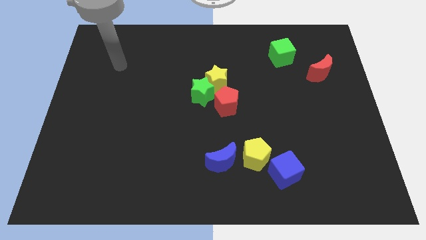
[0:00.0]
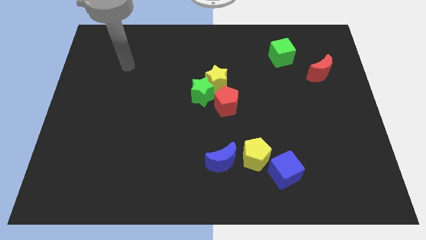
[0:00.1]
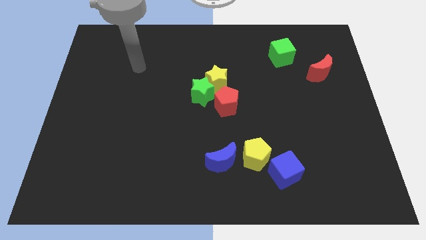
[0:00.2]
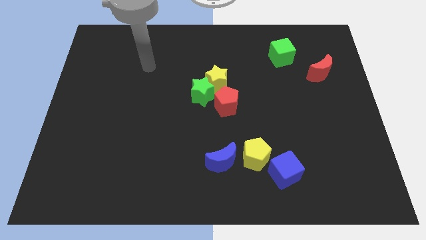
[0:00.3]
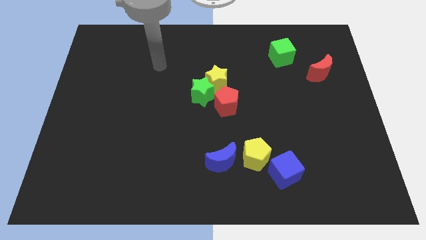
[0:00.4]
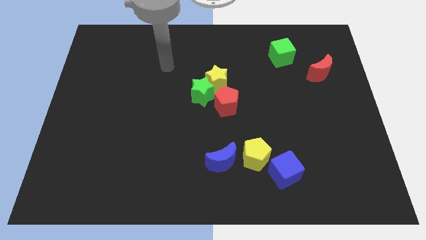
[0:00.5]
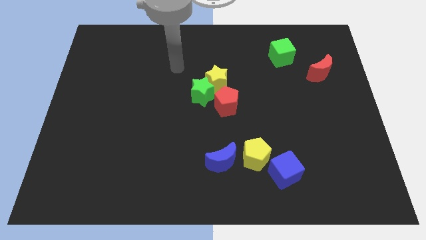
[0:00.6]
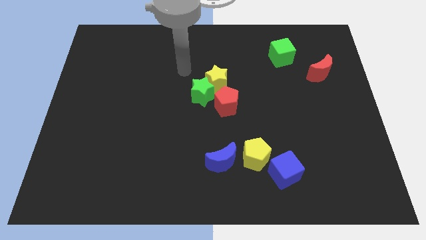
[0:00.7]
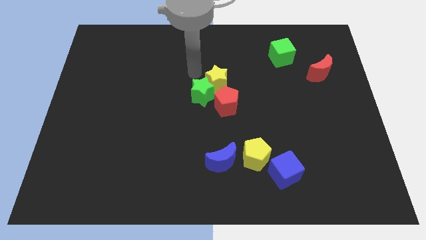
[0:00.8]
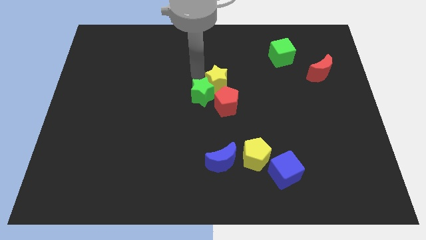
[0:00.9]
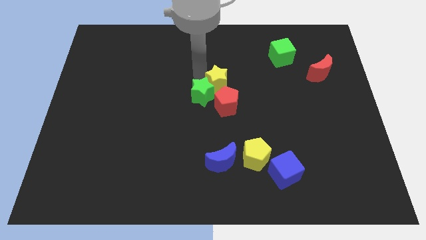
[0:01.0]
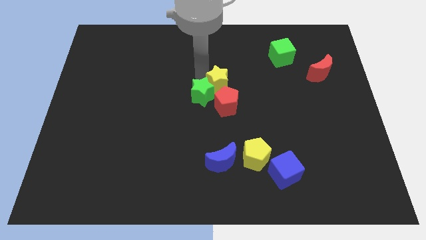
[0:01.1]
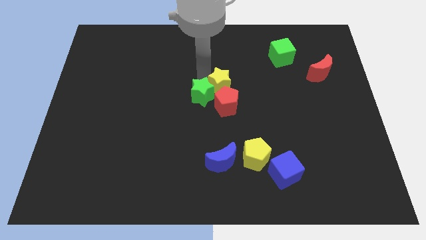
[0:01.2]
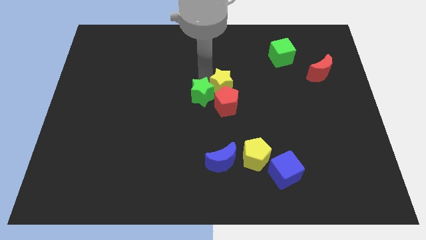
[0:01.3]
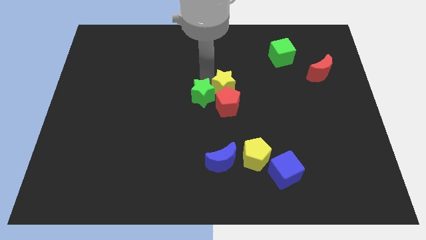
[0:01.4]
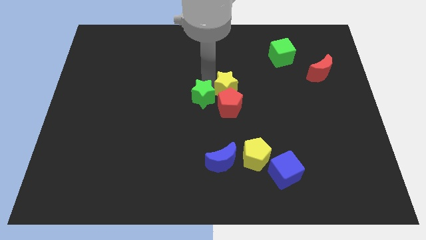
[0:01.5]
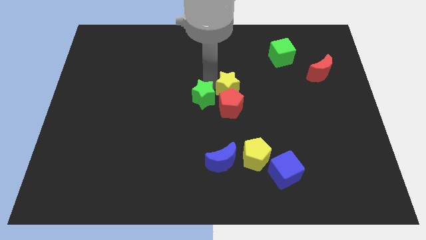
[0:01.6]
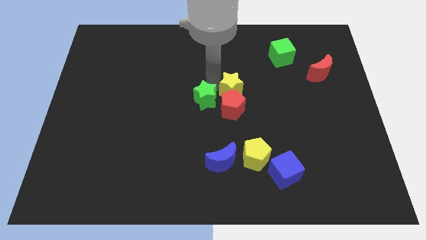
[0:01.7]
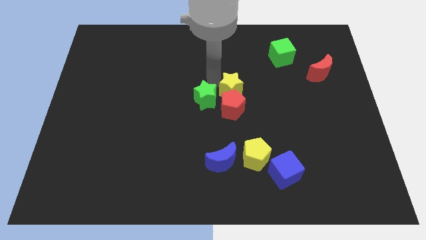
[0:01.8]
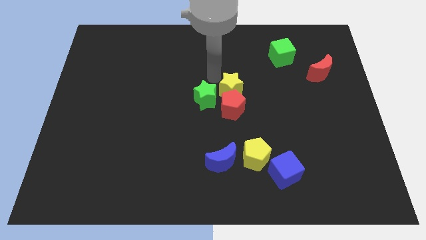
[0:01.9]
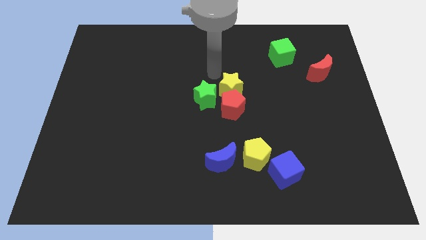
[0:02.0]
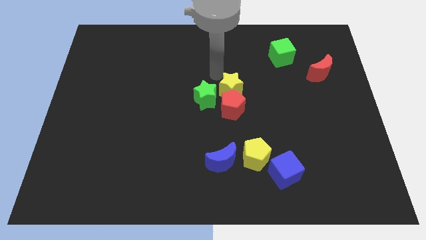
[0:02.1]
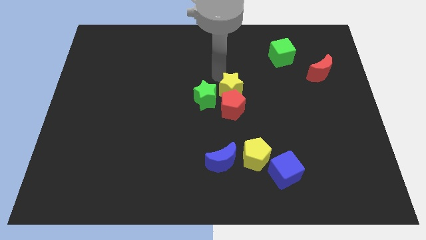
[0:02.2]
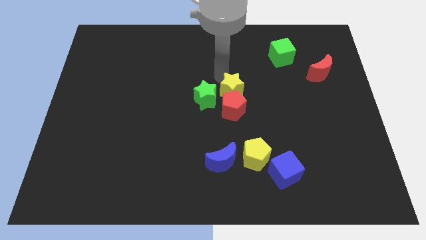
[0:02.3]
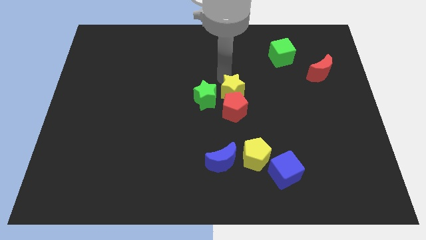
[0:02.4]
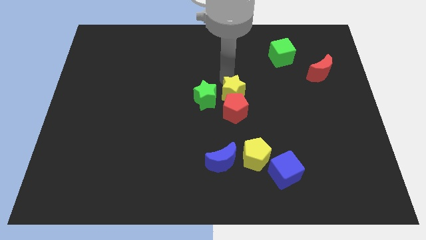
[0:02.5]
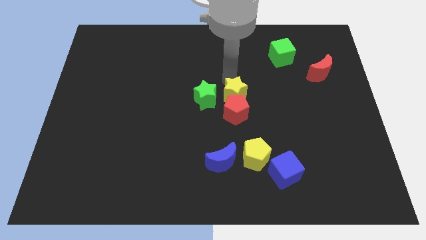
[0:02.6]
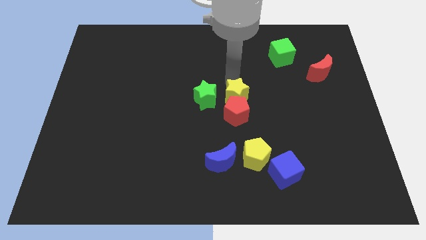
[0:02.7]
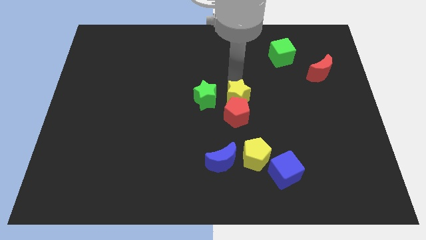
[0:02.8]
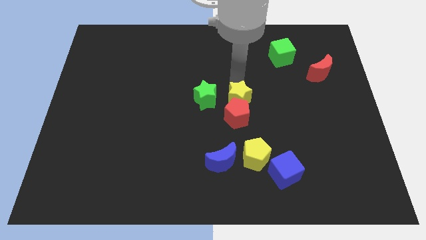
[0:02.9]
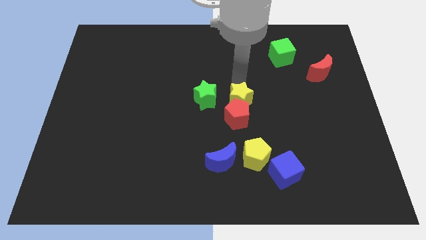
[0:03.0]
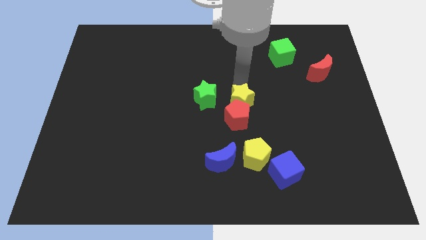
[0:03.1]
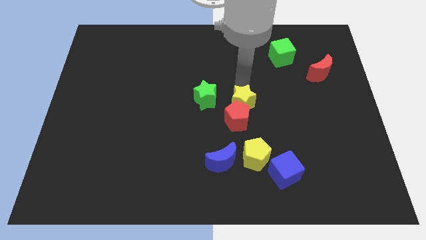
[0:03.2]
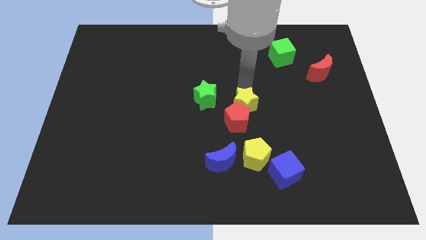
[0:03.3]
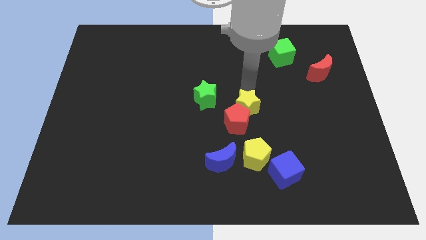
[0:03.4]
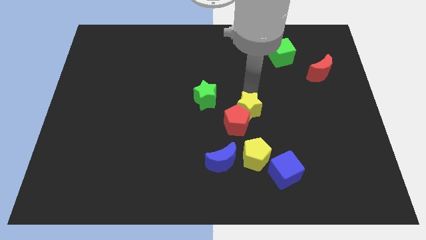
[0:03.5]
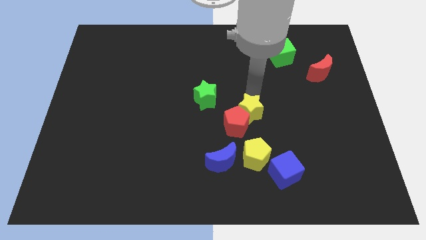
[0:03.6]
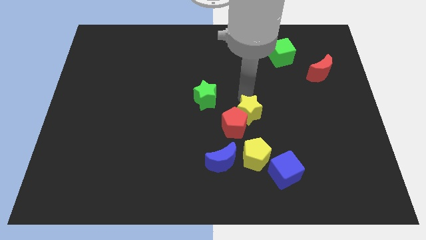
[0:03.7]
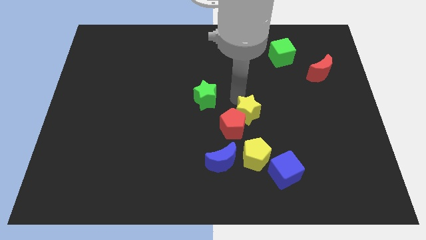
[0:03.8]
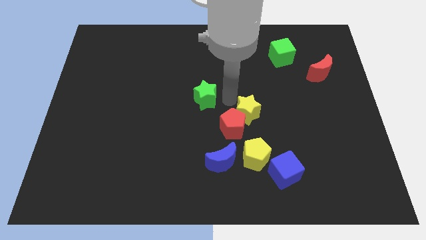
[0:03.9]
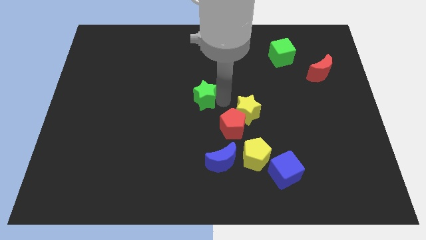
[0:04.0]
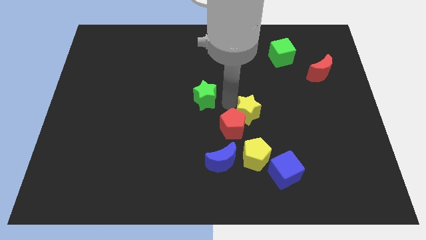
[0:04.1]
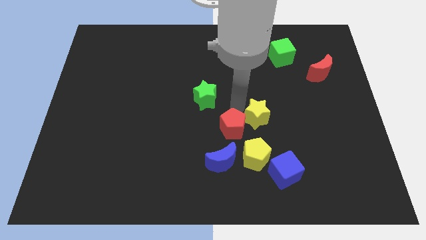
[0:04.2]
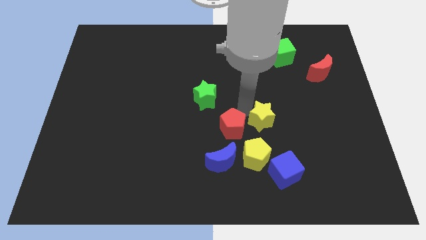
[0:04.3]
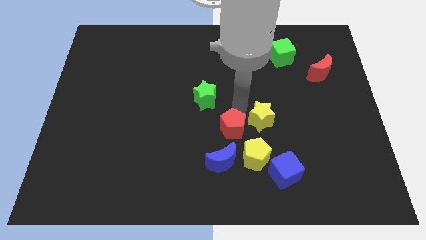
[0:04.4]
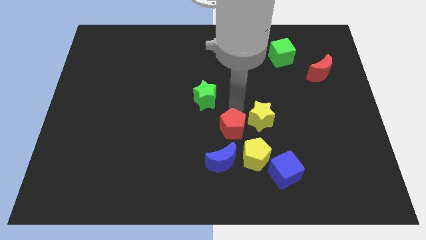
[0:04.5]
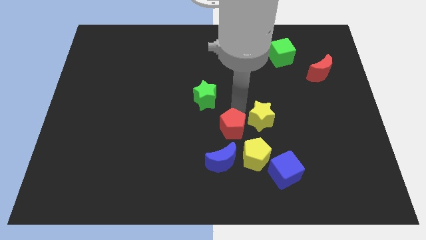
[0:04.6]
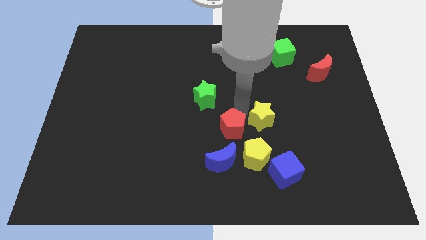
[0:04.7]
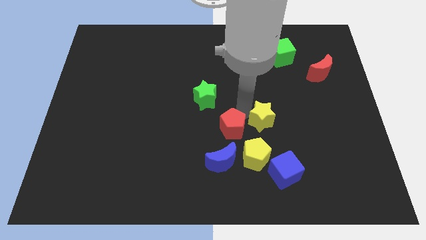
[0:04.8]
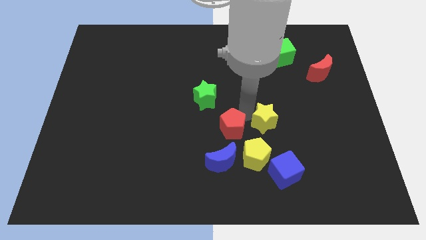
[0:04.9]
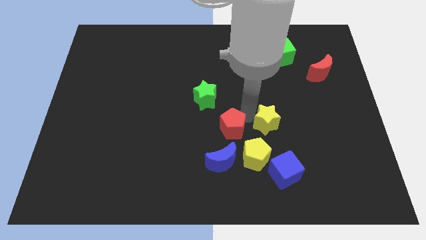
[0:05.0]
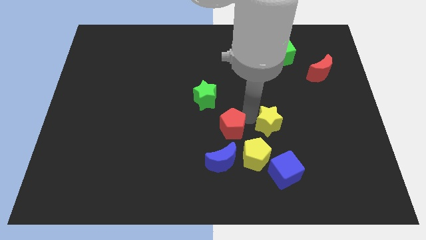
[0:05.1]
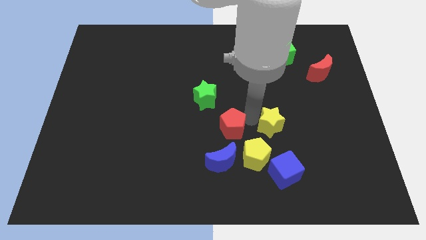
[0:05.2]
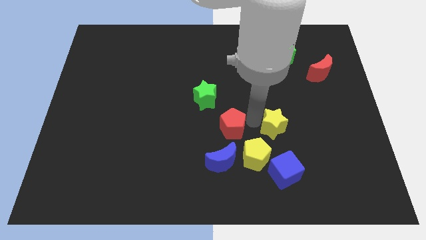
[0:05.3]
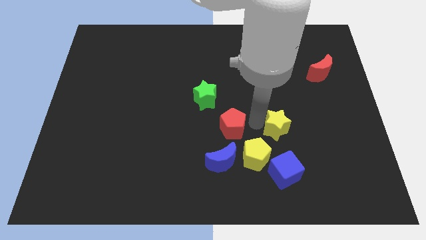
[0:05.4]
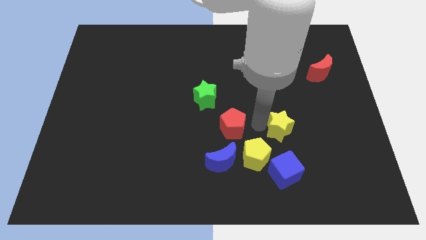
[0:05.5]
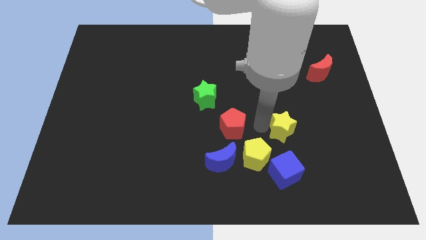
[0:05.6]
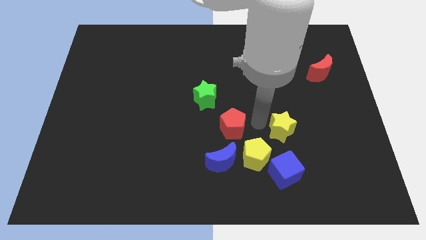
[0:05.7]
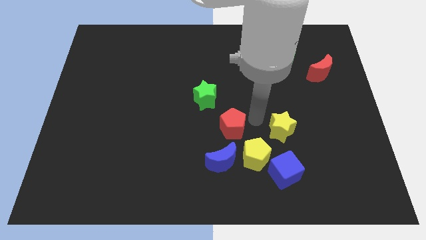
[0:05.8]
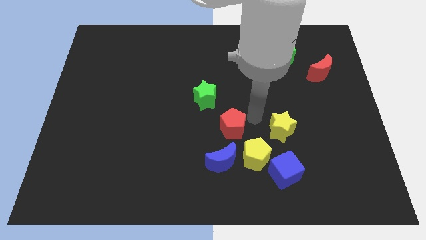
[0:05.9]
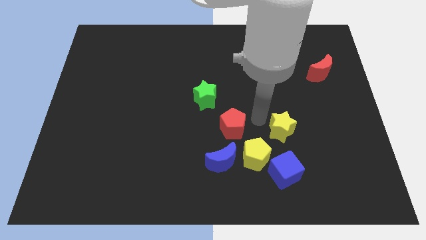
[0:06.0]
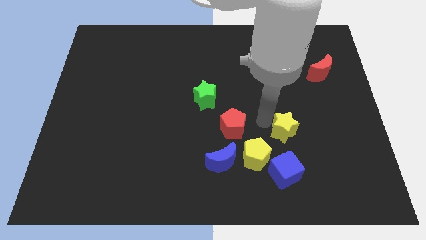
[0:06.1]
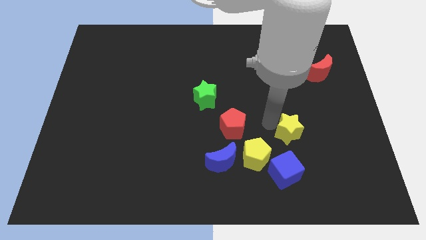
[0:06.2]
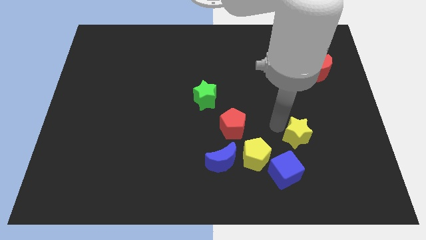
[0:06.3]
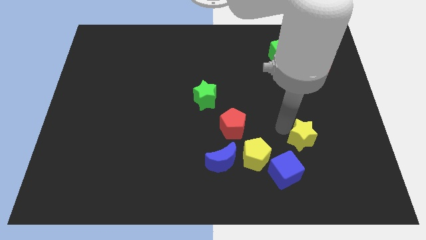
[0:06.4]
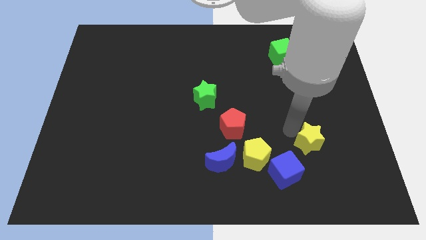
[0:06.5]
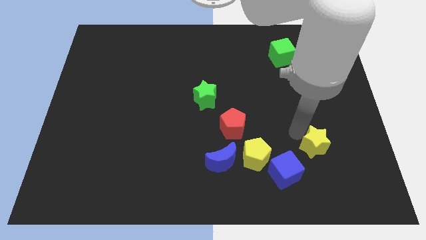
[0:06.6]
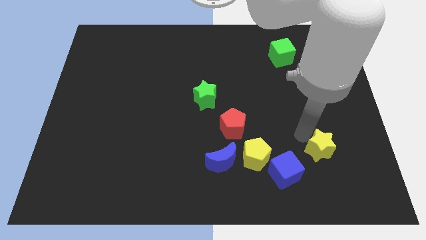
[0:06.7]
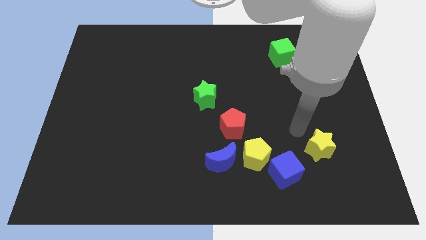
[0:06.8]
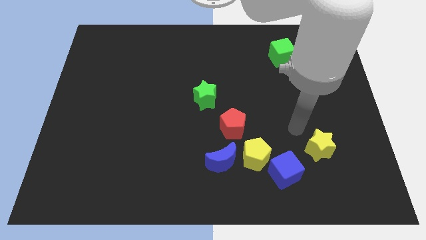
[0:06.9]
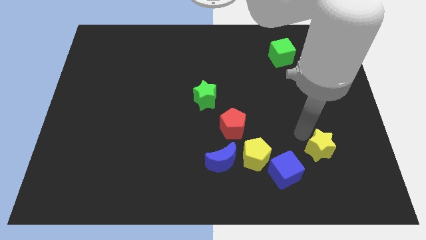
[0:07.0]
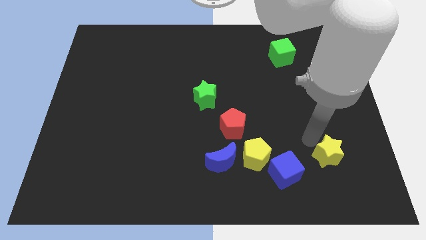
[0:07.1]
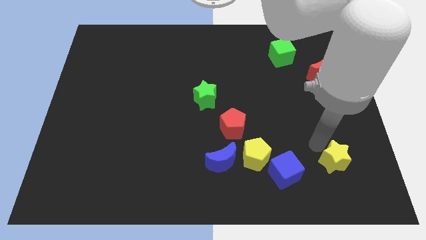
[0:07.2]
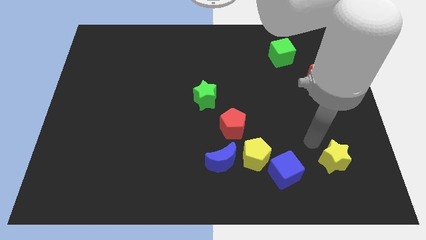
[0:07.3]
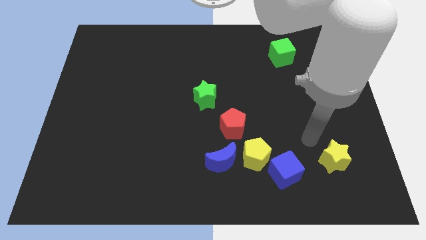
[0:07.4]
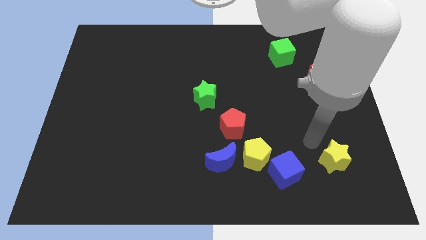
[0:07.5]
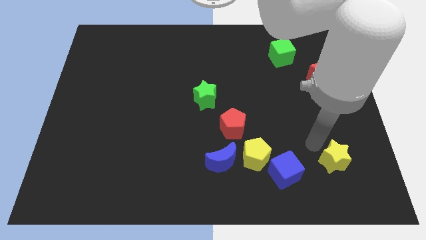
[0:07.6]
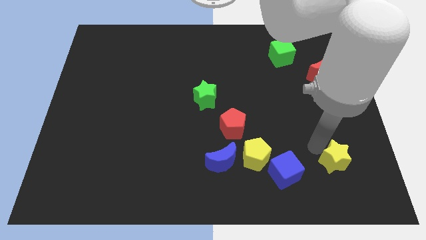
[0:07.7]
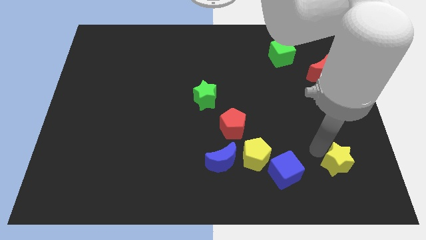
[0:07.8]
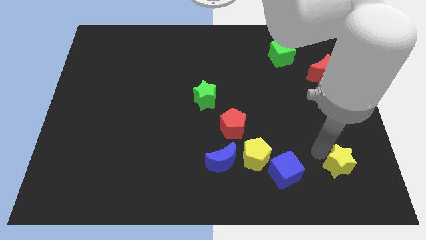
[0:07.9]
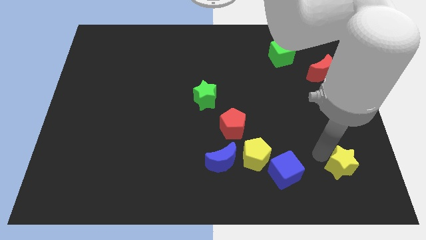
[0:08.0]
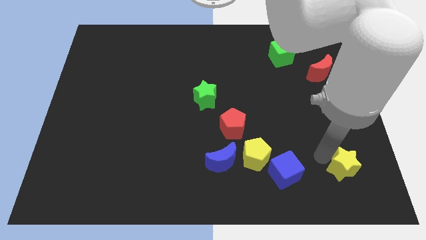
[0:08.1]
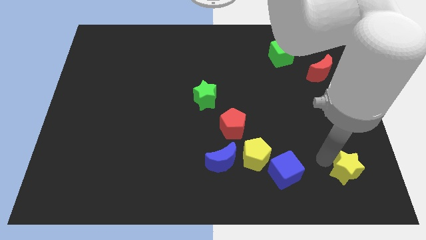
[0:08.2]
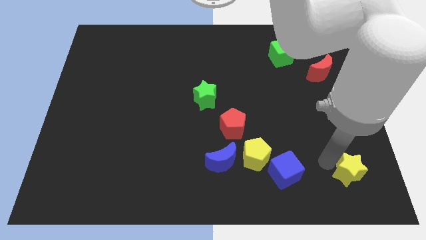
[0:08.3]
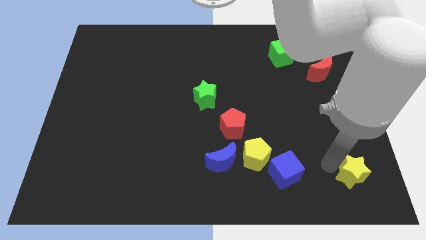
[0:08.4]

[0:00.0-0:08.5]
slide the yellow star to the bottom right
